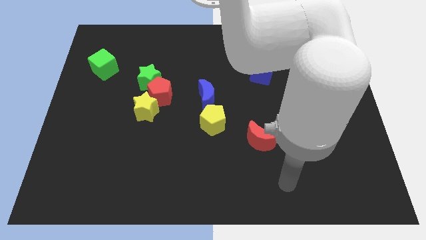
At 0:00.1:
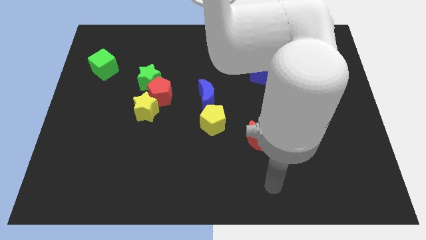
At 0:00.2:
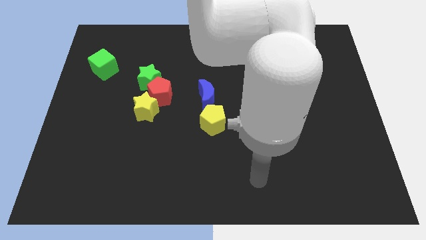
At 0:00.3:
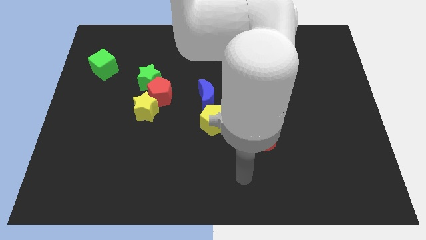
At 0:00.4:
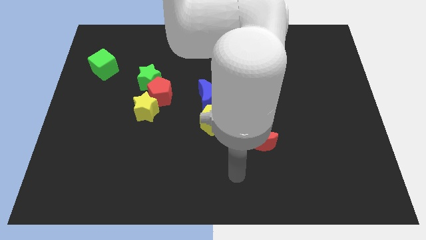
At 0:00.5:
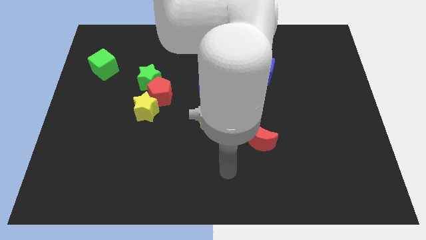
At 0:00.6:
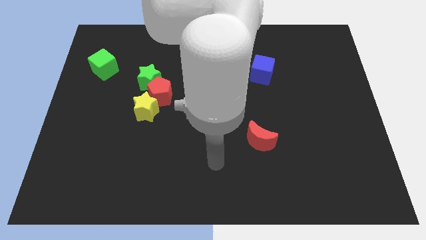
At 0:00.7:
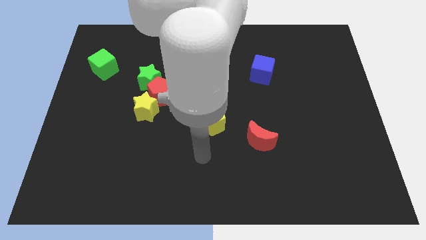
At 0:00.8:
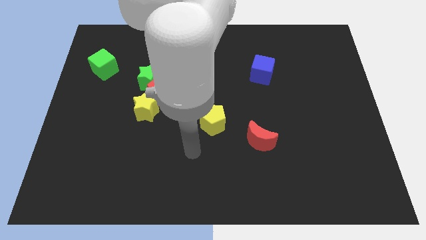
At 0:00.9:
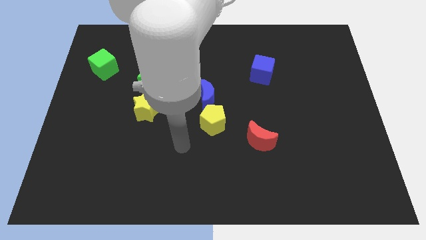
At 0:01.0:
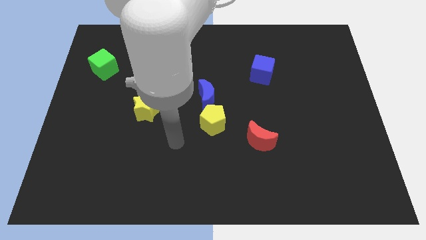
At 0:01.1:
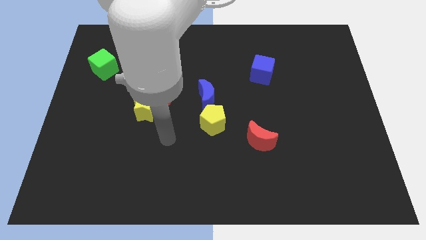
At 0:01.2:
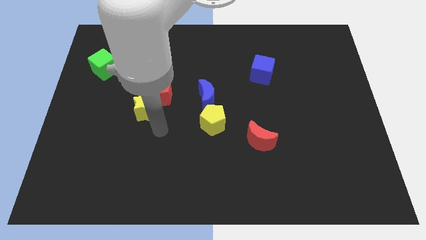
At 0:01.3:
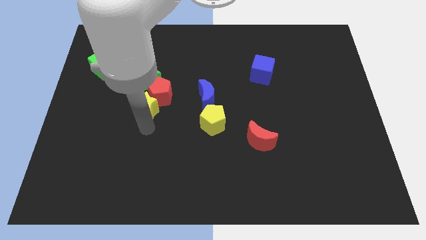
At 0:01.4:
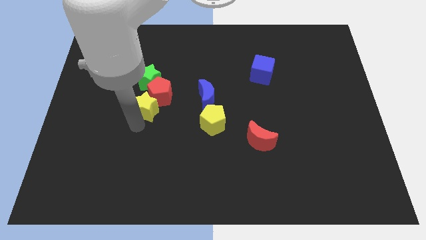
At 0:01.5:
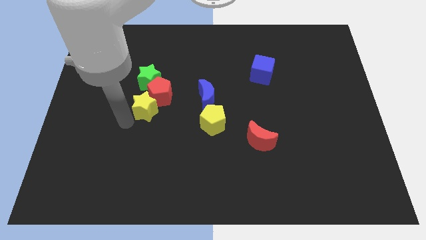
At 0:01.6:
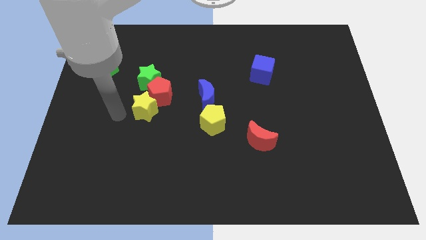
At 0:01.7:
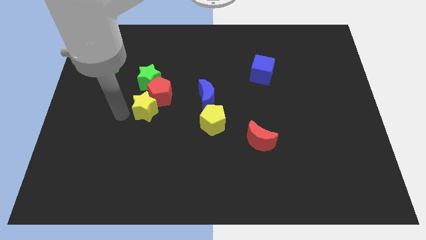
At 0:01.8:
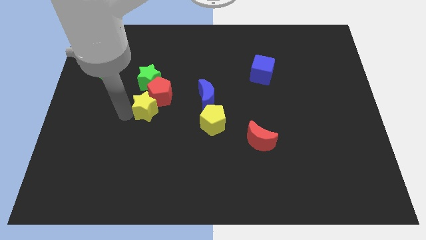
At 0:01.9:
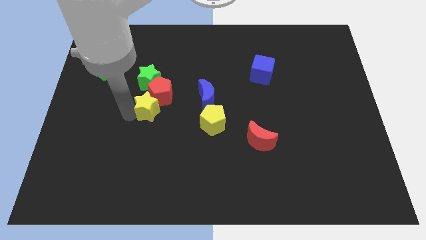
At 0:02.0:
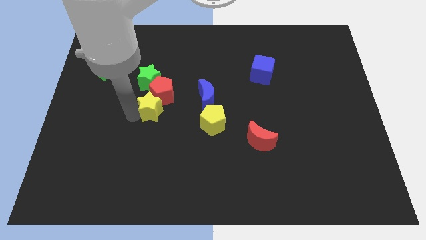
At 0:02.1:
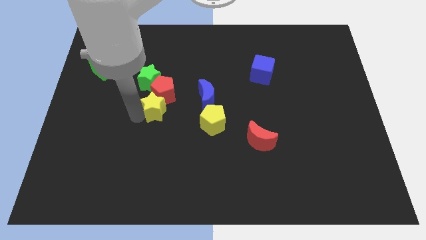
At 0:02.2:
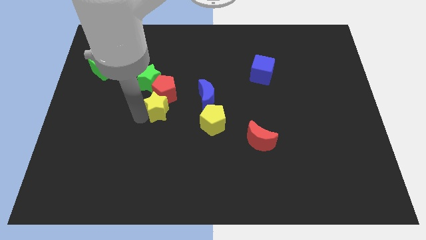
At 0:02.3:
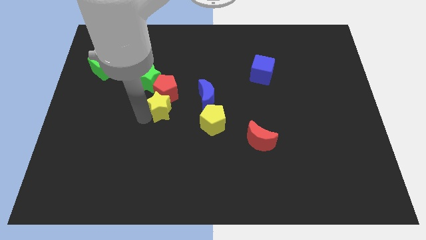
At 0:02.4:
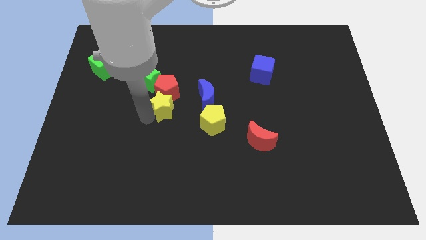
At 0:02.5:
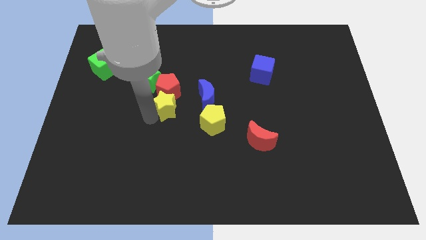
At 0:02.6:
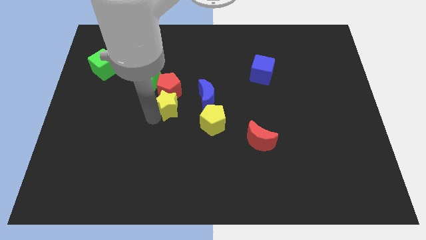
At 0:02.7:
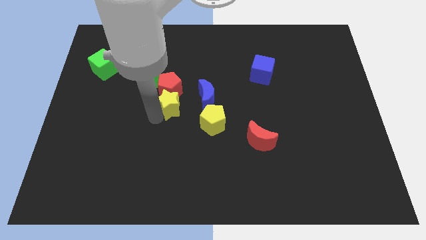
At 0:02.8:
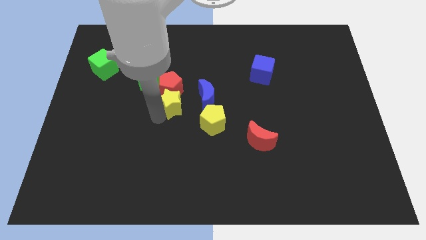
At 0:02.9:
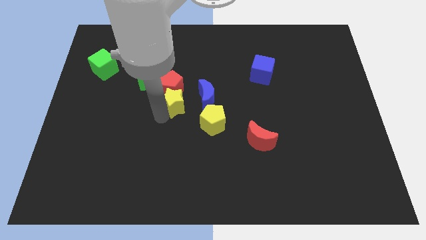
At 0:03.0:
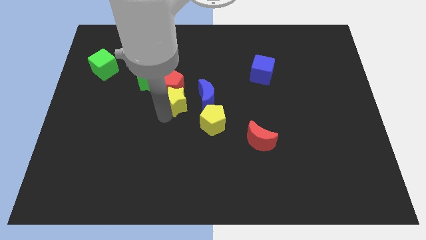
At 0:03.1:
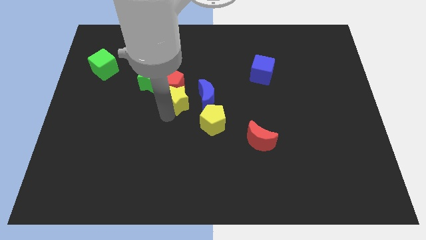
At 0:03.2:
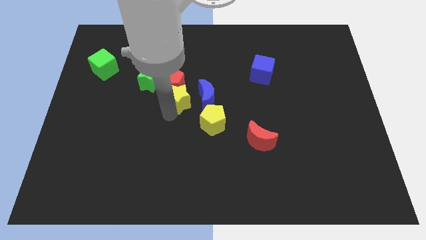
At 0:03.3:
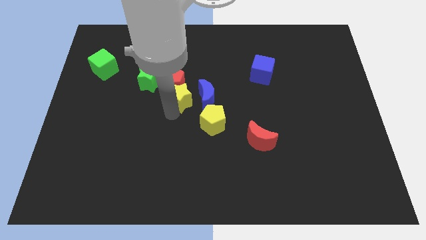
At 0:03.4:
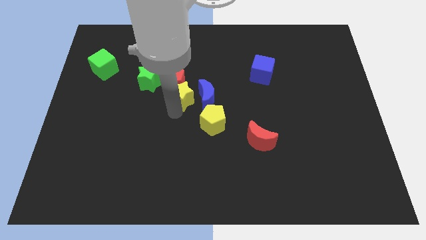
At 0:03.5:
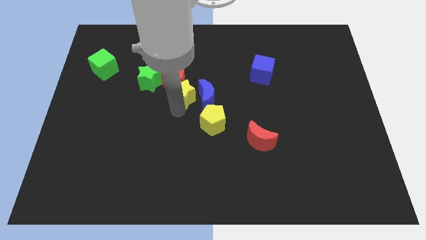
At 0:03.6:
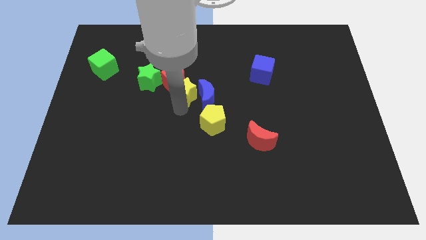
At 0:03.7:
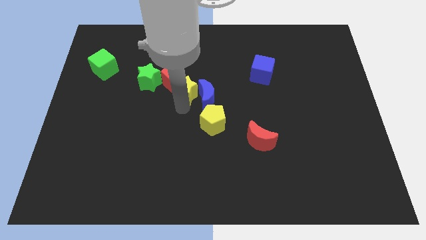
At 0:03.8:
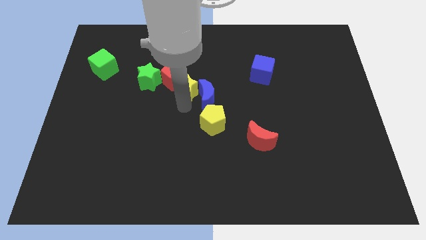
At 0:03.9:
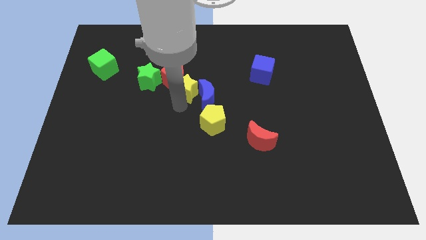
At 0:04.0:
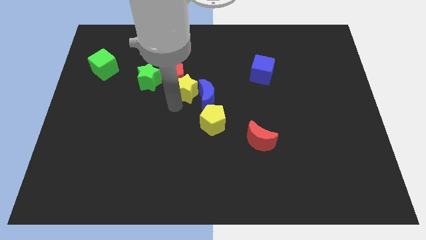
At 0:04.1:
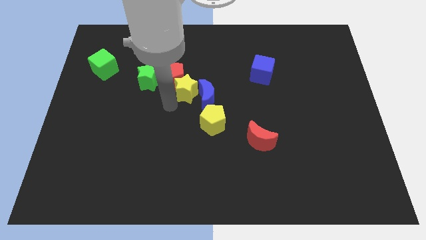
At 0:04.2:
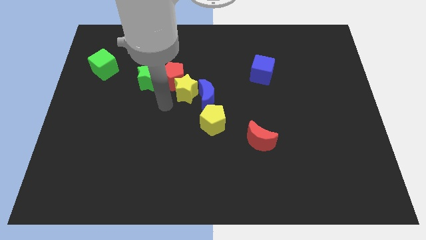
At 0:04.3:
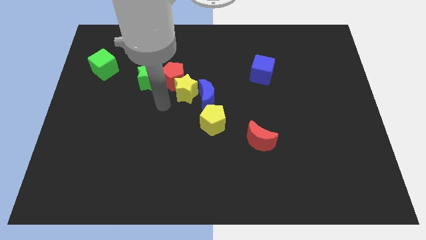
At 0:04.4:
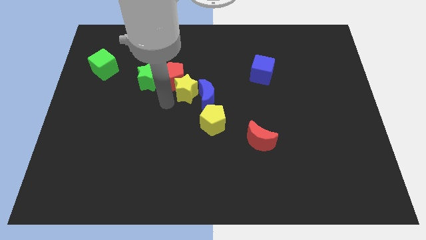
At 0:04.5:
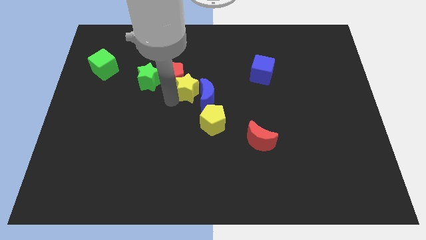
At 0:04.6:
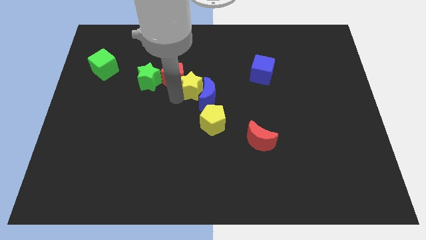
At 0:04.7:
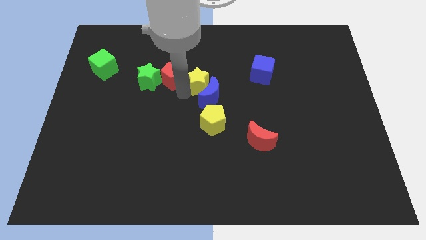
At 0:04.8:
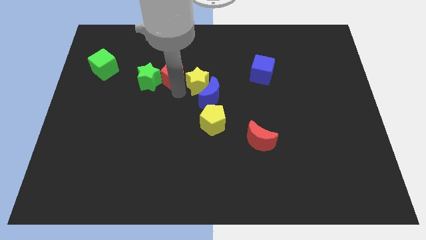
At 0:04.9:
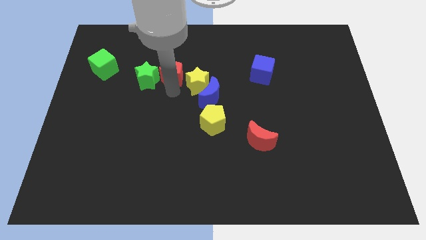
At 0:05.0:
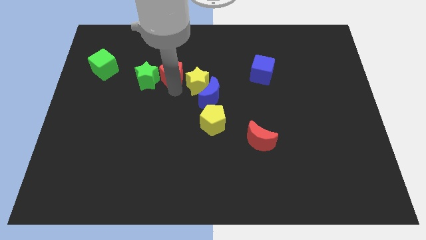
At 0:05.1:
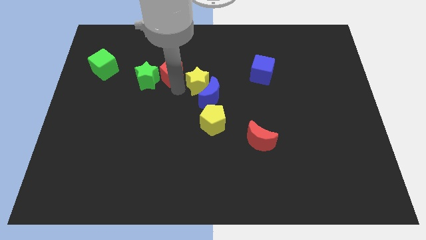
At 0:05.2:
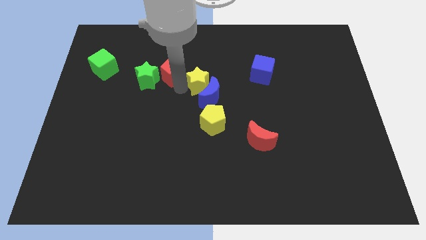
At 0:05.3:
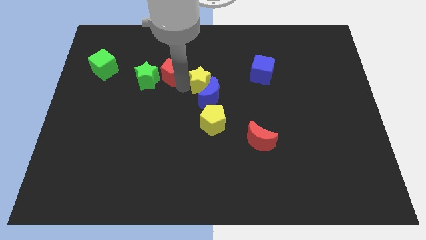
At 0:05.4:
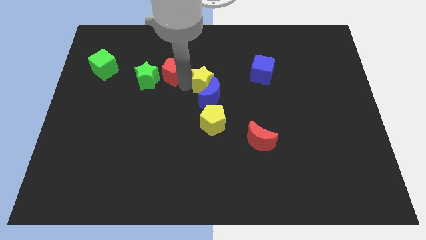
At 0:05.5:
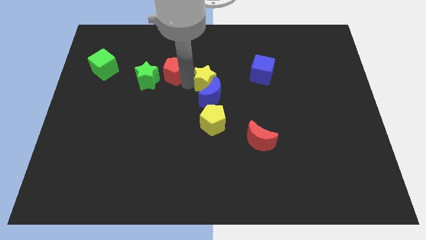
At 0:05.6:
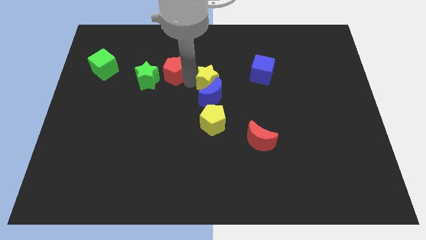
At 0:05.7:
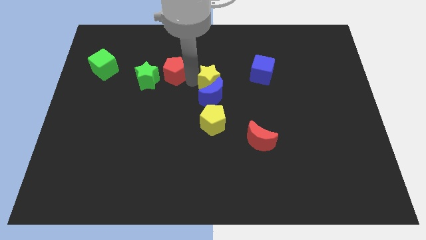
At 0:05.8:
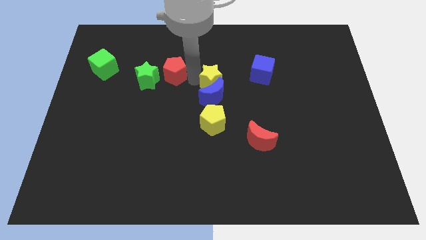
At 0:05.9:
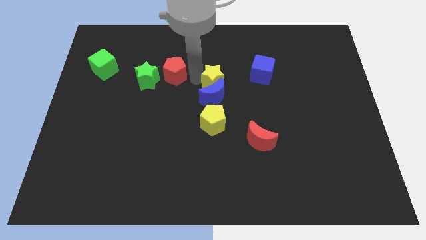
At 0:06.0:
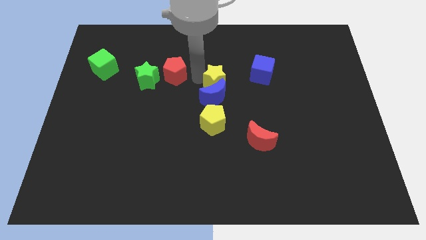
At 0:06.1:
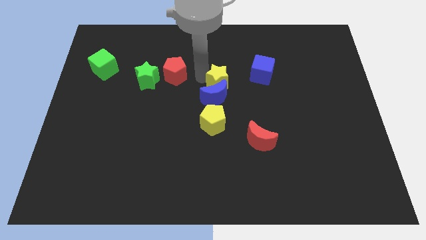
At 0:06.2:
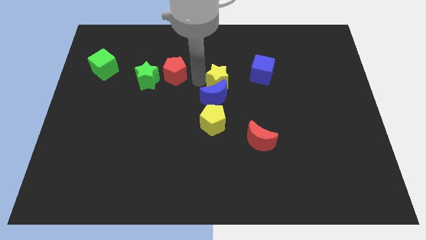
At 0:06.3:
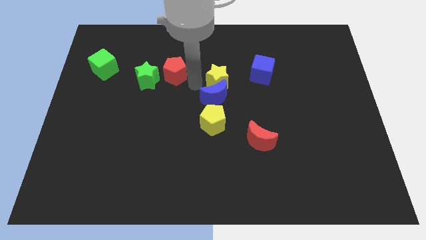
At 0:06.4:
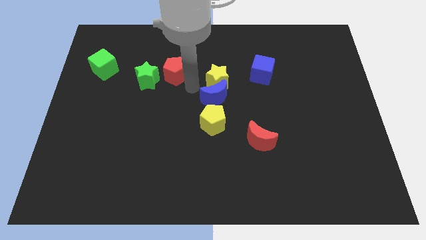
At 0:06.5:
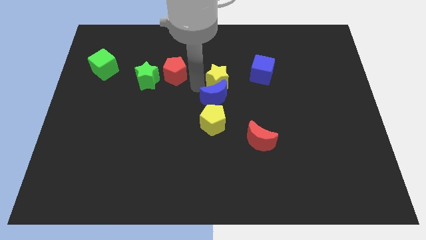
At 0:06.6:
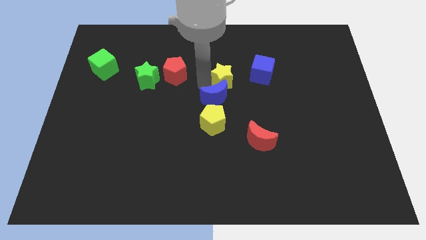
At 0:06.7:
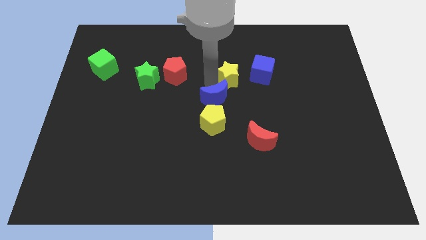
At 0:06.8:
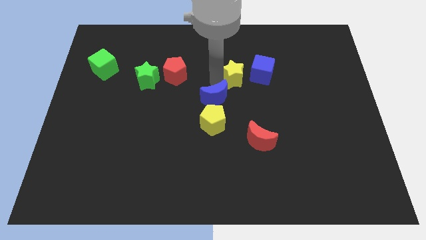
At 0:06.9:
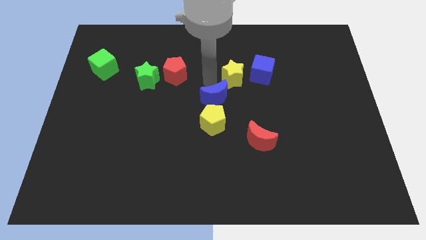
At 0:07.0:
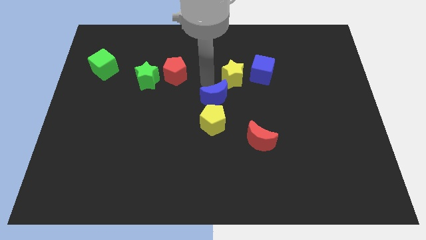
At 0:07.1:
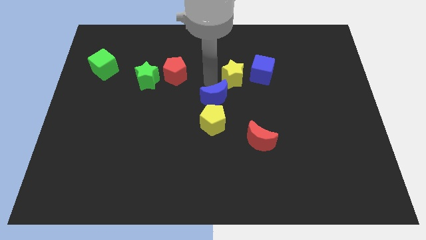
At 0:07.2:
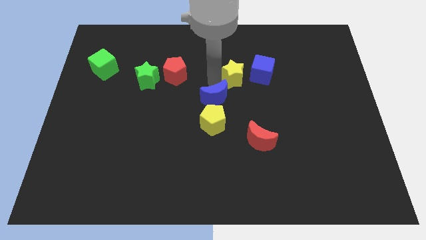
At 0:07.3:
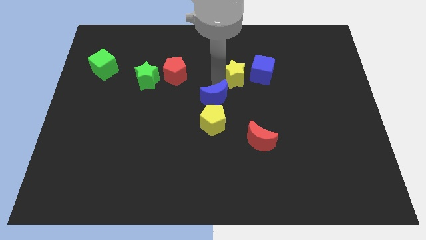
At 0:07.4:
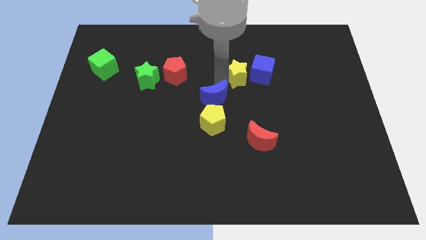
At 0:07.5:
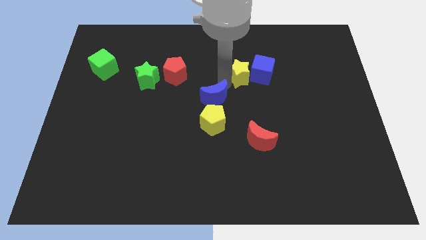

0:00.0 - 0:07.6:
slide the yellow star to the blue cube

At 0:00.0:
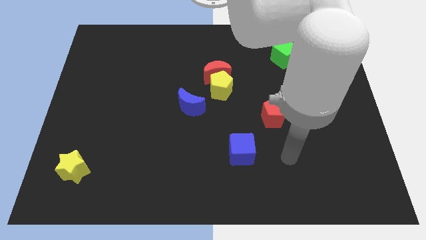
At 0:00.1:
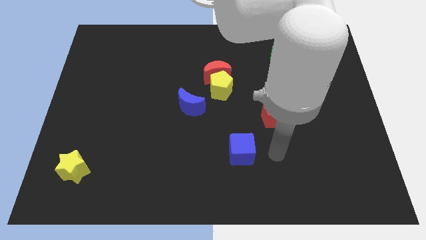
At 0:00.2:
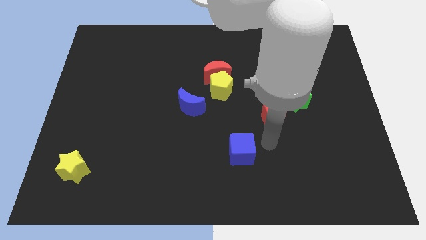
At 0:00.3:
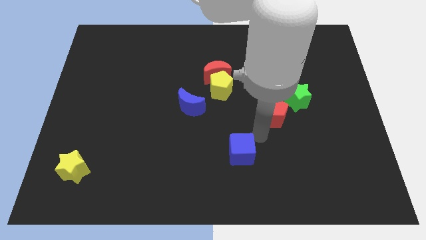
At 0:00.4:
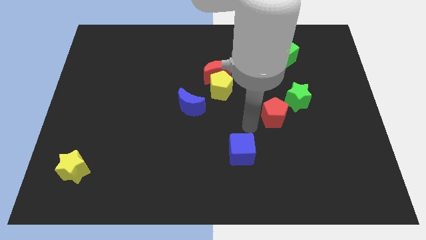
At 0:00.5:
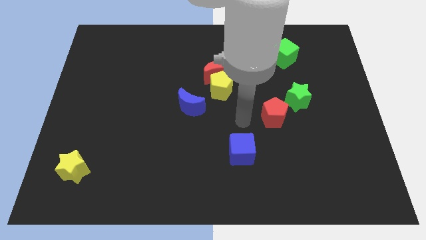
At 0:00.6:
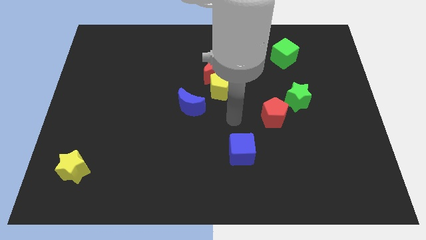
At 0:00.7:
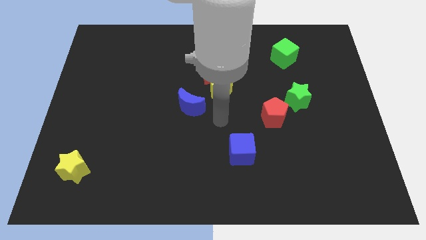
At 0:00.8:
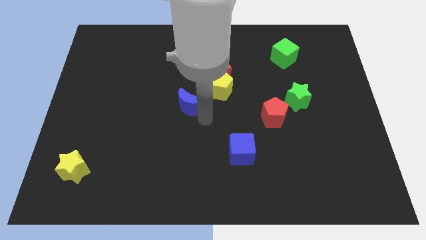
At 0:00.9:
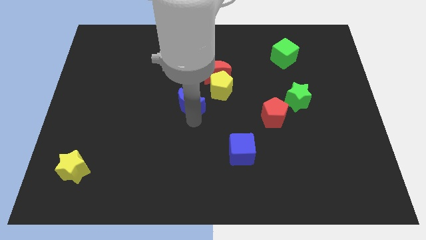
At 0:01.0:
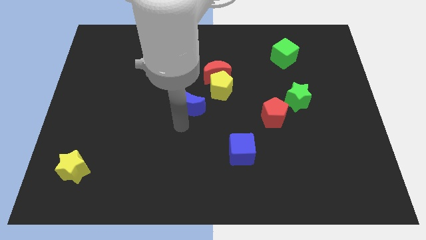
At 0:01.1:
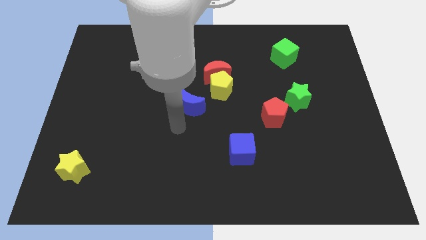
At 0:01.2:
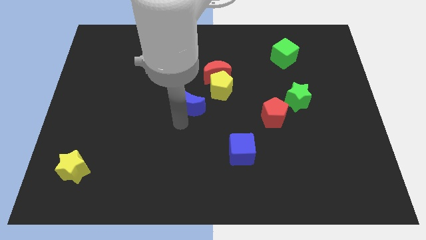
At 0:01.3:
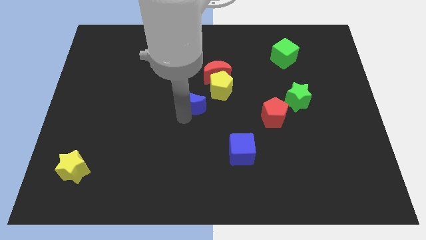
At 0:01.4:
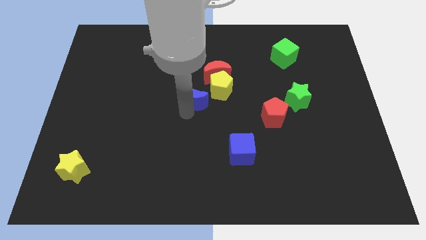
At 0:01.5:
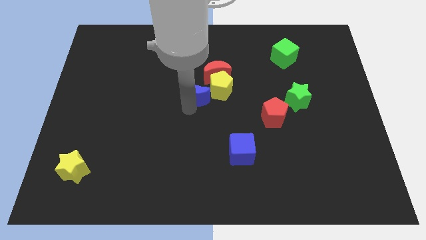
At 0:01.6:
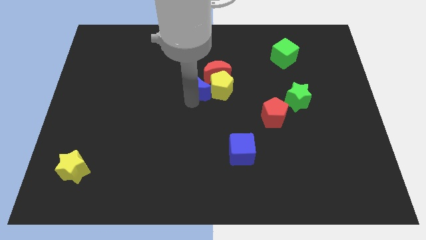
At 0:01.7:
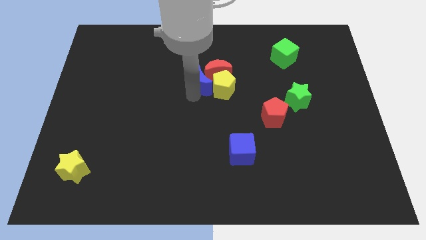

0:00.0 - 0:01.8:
push the blue moon next to the red moon
